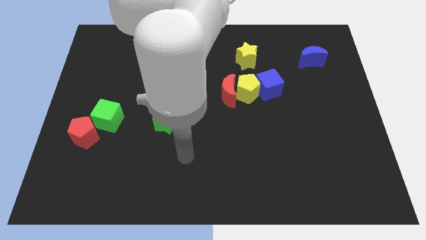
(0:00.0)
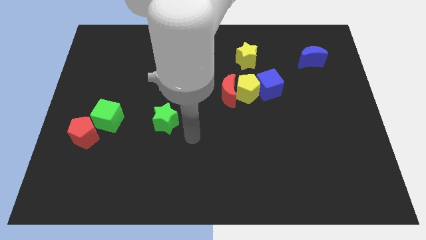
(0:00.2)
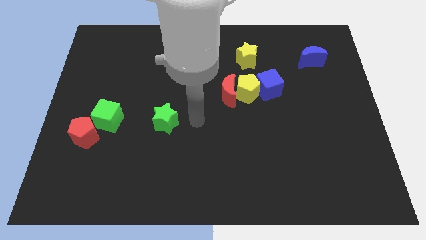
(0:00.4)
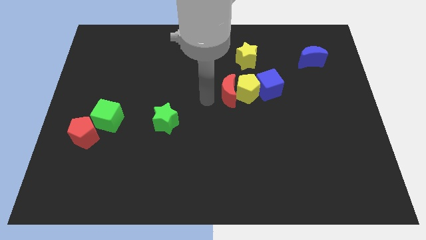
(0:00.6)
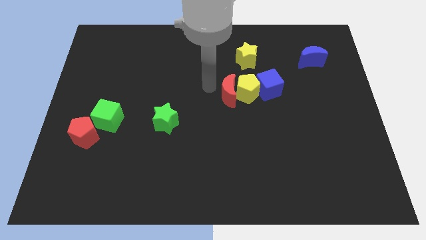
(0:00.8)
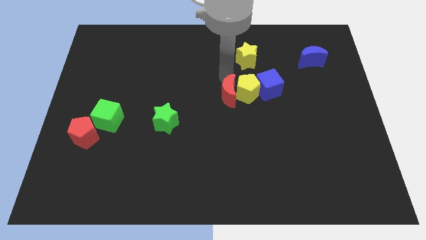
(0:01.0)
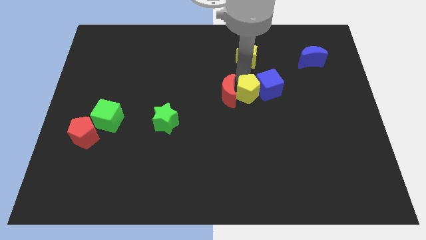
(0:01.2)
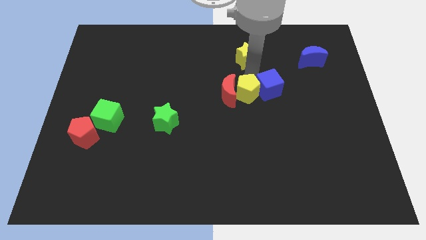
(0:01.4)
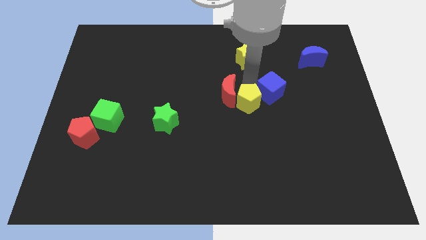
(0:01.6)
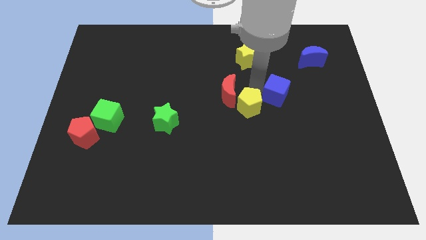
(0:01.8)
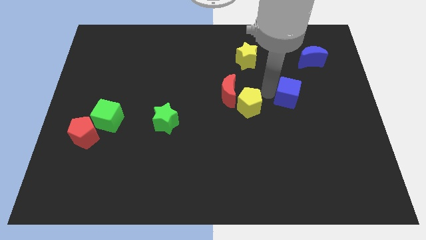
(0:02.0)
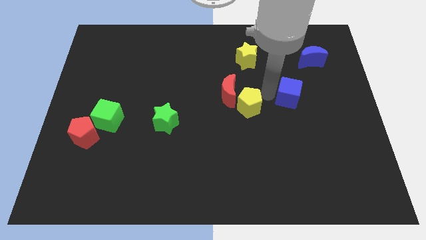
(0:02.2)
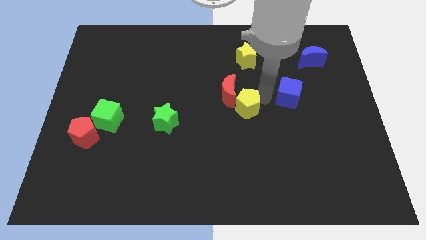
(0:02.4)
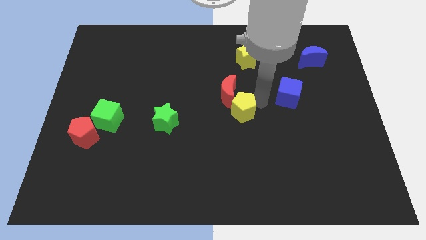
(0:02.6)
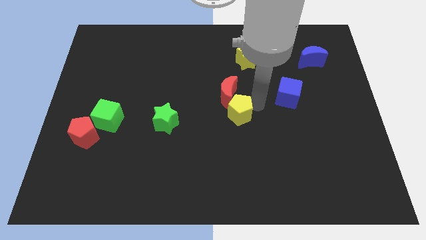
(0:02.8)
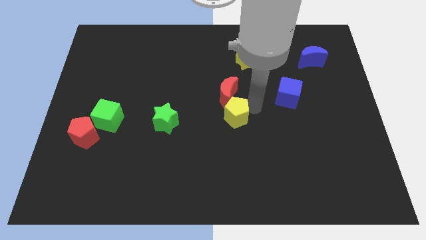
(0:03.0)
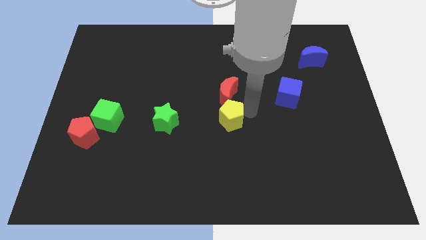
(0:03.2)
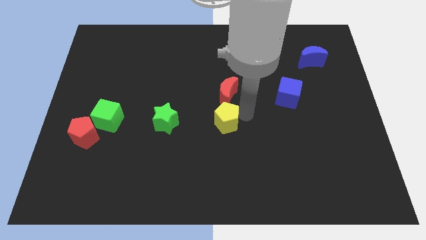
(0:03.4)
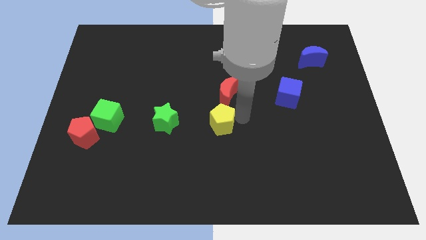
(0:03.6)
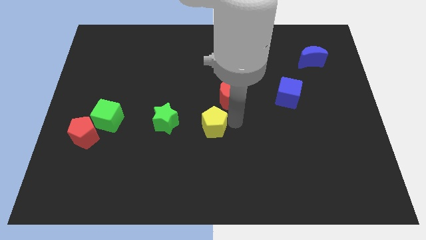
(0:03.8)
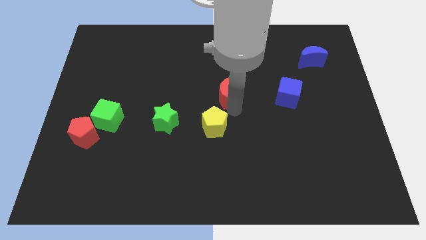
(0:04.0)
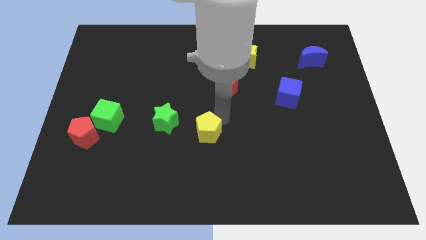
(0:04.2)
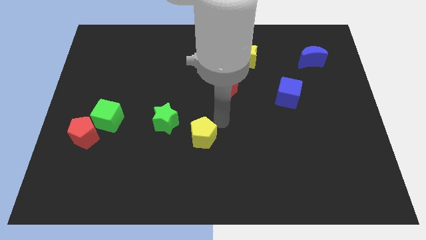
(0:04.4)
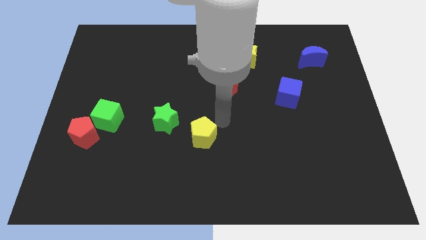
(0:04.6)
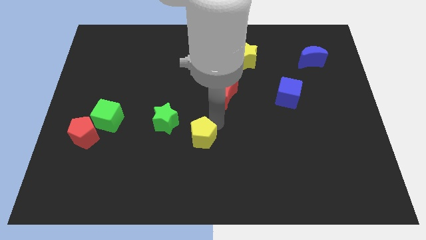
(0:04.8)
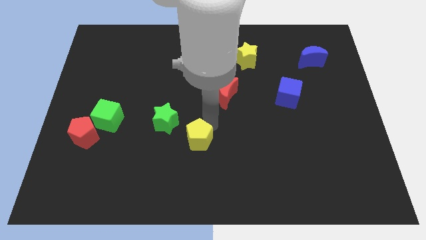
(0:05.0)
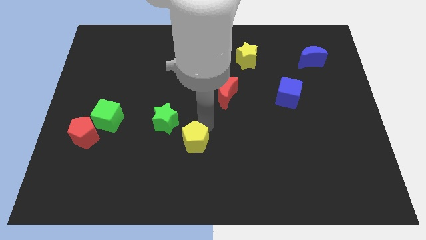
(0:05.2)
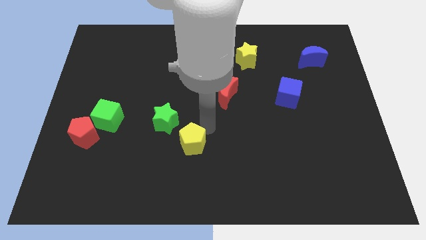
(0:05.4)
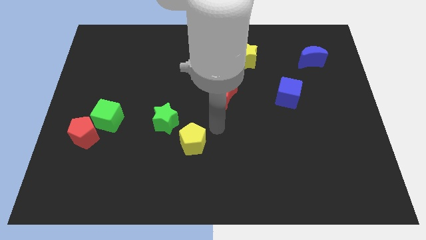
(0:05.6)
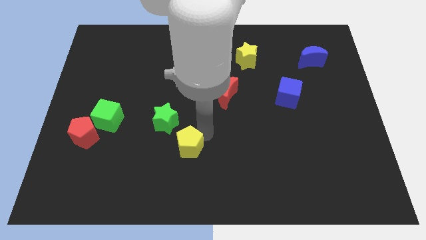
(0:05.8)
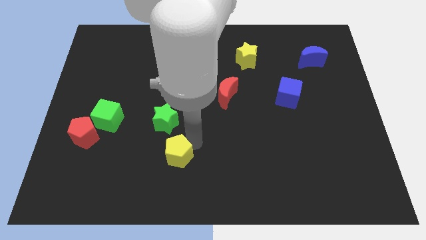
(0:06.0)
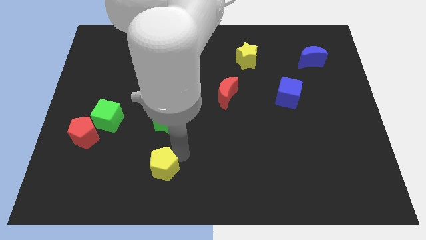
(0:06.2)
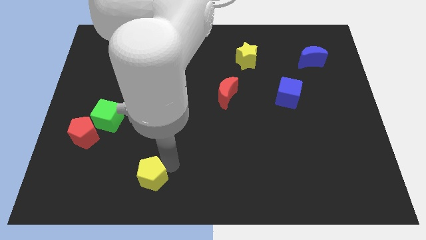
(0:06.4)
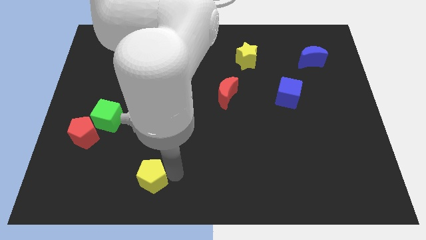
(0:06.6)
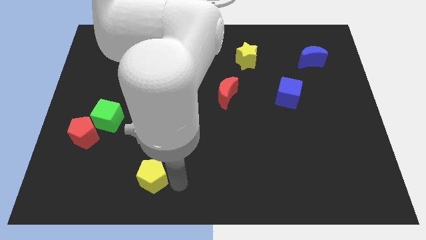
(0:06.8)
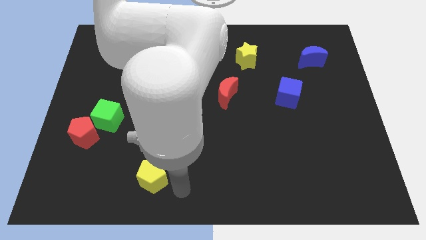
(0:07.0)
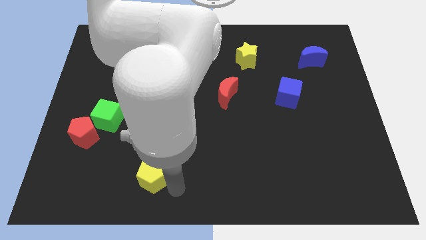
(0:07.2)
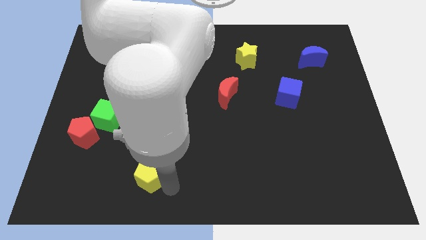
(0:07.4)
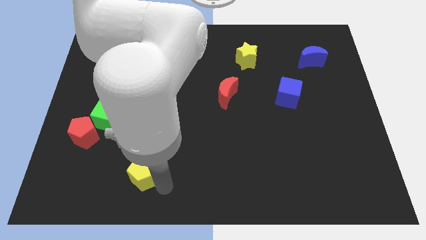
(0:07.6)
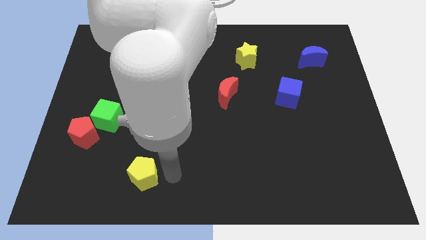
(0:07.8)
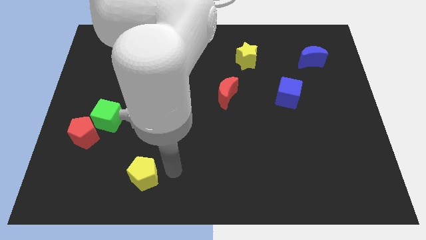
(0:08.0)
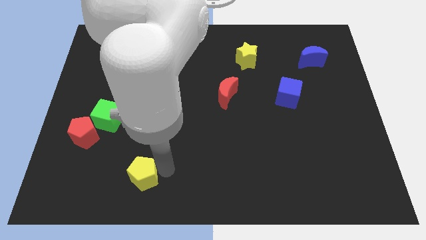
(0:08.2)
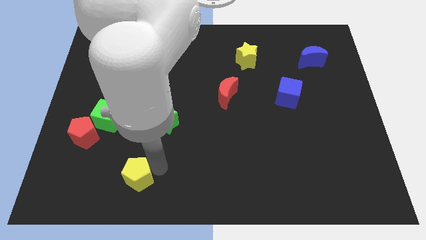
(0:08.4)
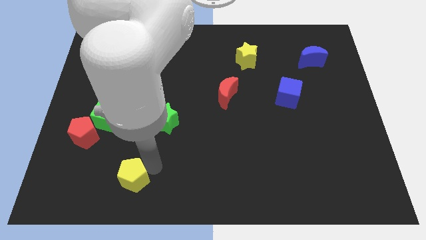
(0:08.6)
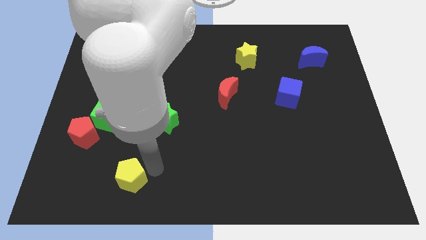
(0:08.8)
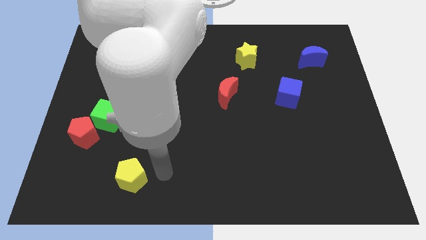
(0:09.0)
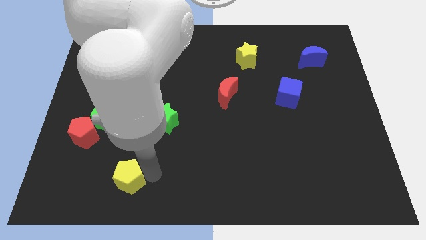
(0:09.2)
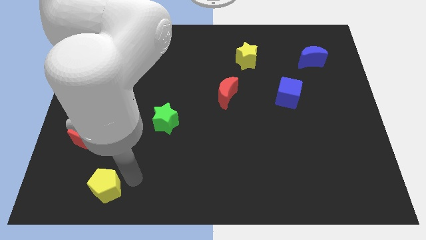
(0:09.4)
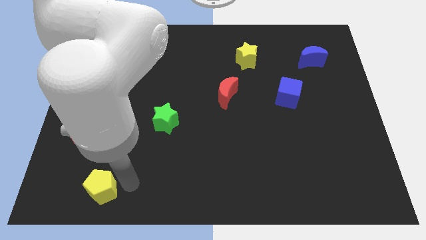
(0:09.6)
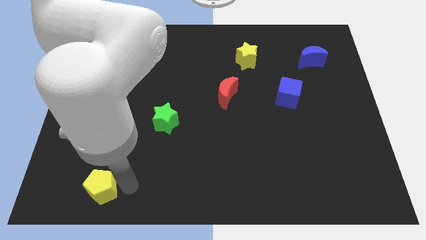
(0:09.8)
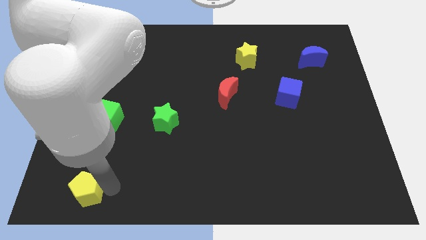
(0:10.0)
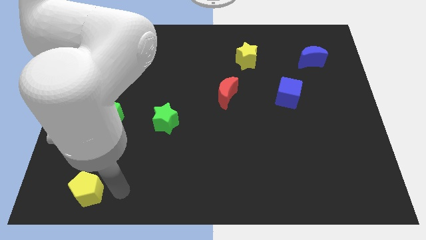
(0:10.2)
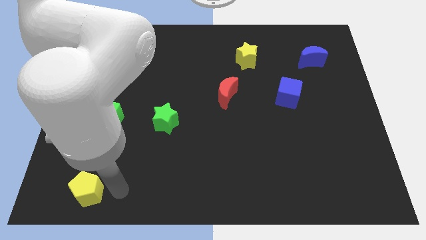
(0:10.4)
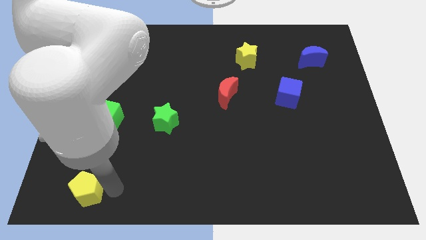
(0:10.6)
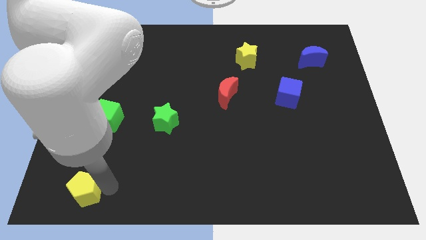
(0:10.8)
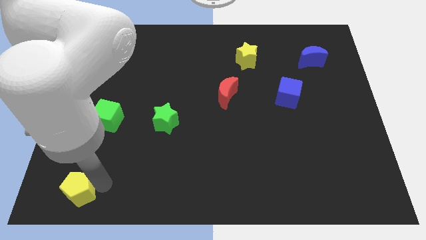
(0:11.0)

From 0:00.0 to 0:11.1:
slide the yellow pentagon to the bottom left
